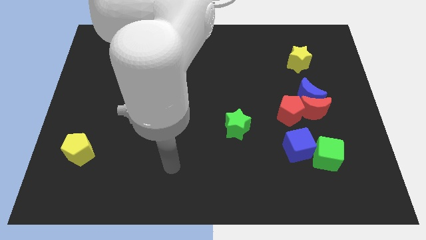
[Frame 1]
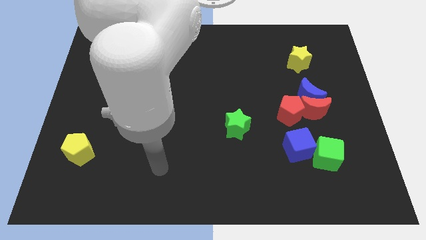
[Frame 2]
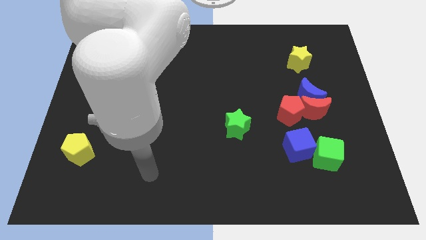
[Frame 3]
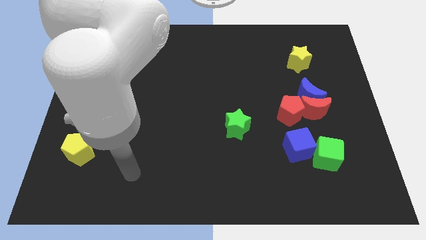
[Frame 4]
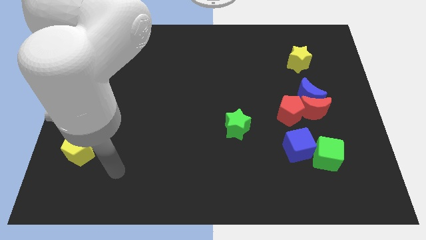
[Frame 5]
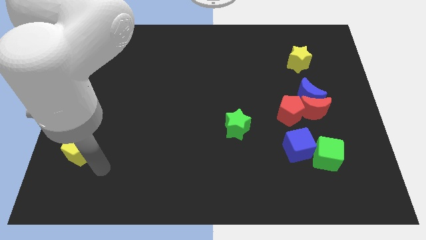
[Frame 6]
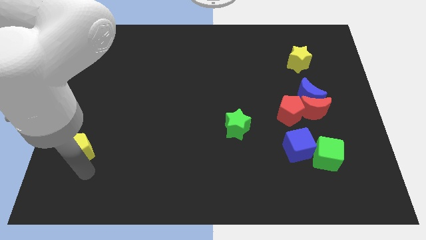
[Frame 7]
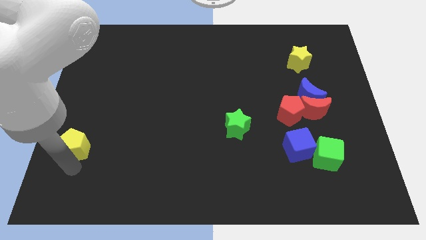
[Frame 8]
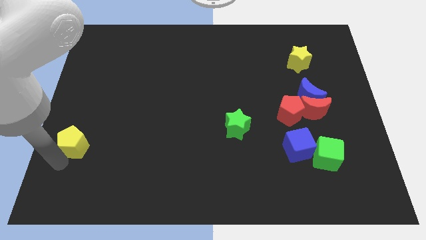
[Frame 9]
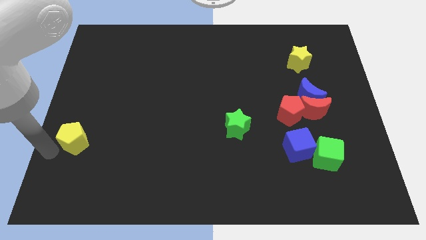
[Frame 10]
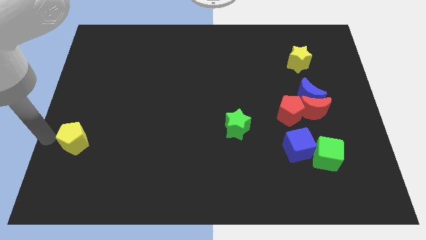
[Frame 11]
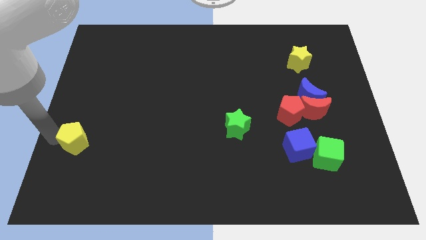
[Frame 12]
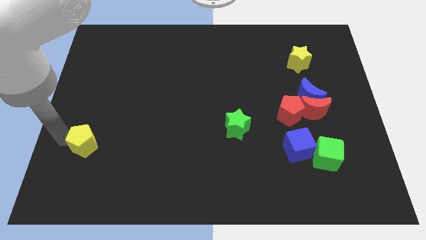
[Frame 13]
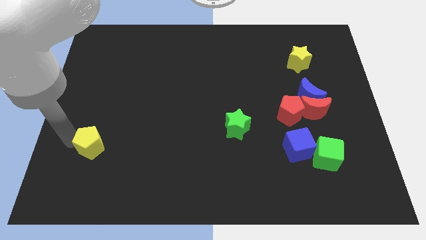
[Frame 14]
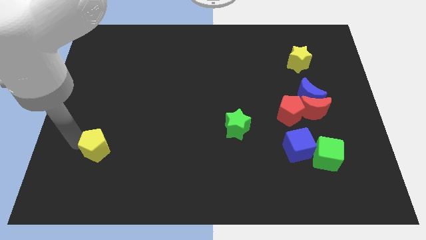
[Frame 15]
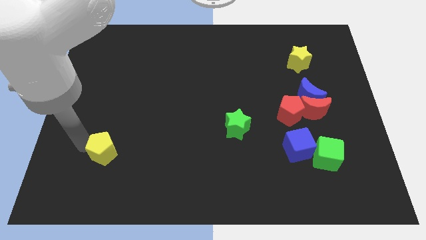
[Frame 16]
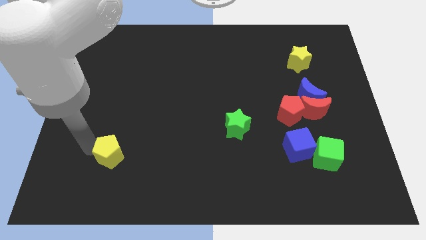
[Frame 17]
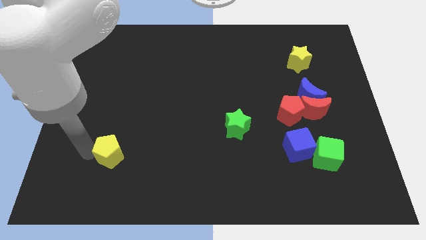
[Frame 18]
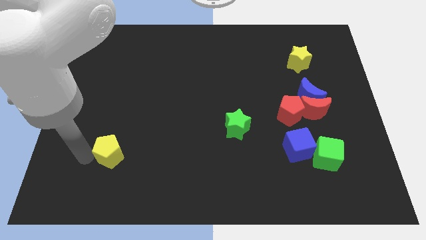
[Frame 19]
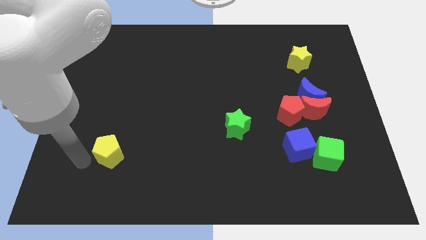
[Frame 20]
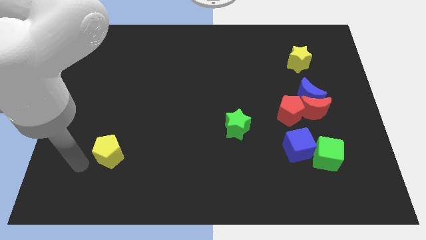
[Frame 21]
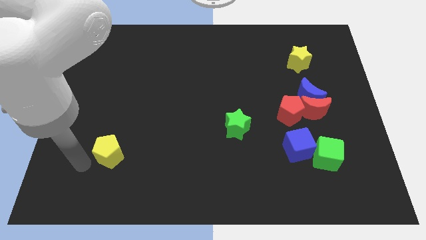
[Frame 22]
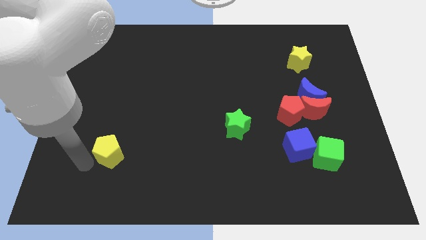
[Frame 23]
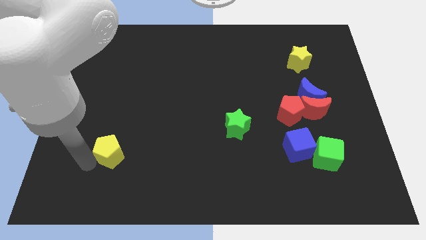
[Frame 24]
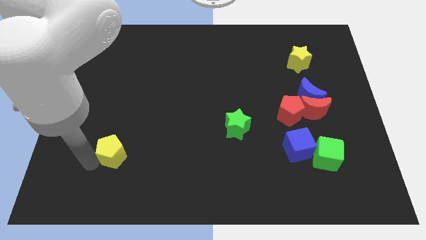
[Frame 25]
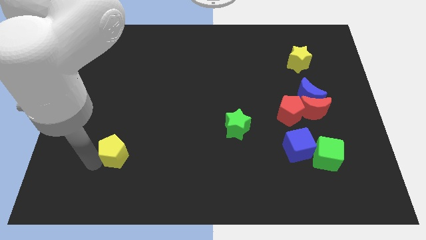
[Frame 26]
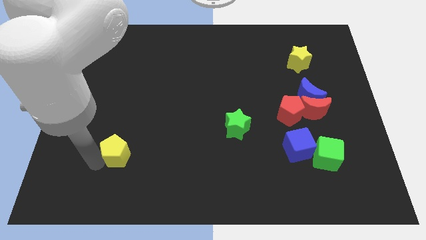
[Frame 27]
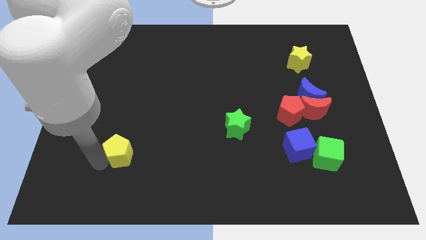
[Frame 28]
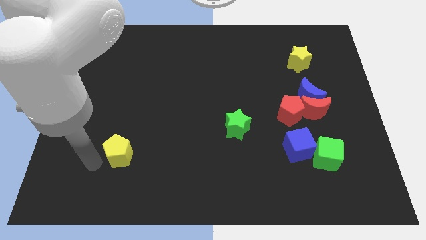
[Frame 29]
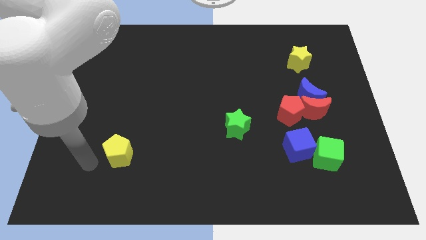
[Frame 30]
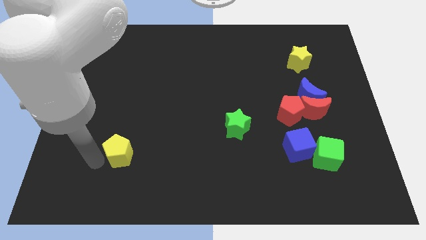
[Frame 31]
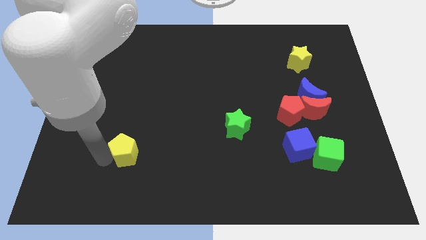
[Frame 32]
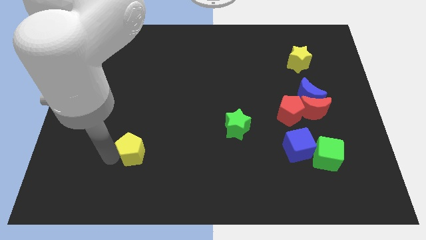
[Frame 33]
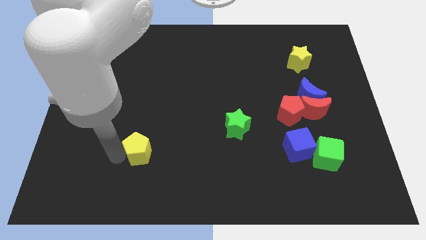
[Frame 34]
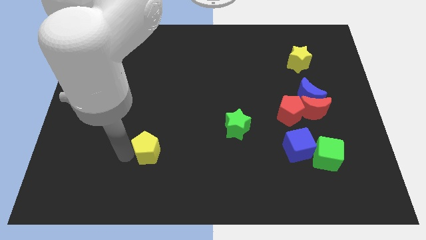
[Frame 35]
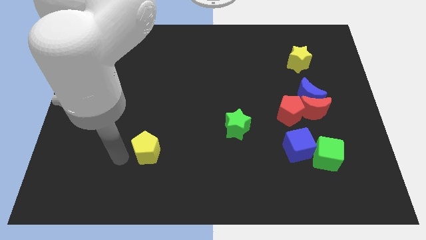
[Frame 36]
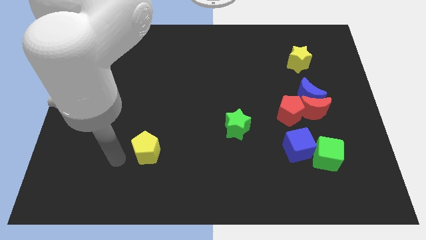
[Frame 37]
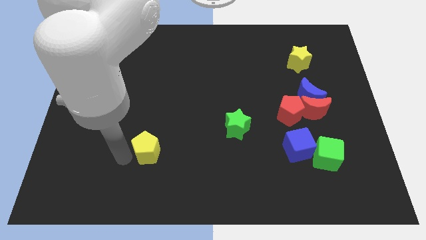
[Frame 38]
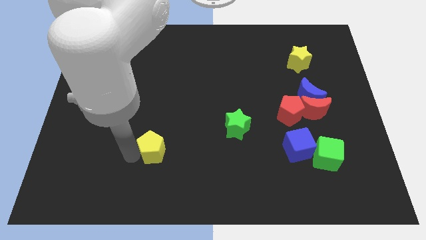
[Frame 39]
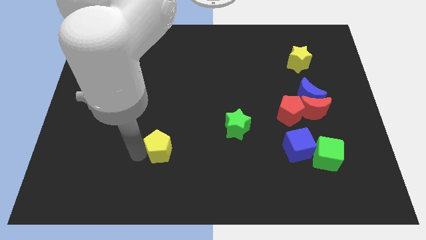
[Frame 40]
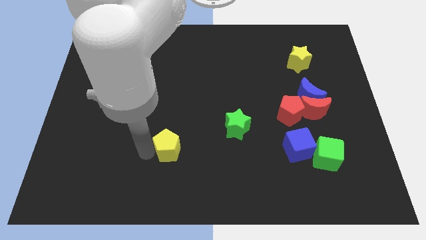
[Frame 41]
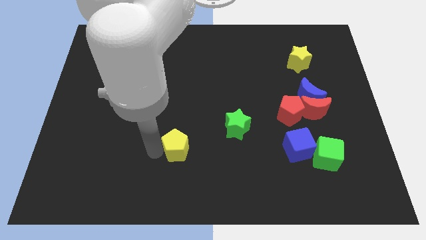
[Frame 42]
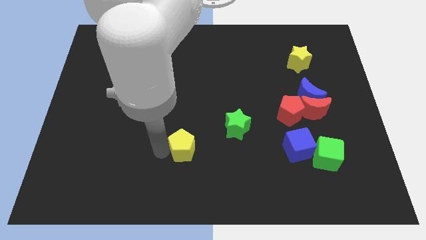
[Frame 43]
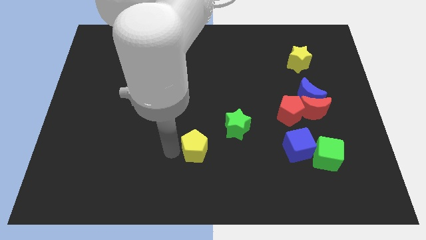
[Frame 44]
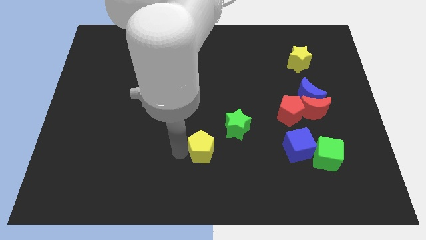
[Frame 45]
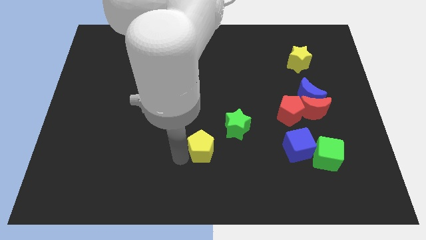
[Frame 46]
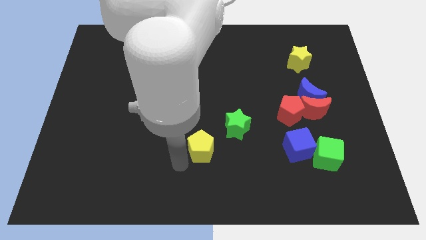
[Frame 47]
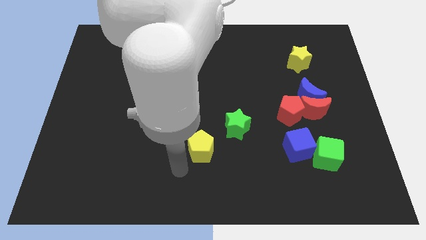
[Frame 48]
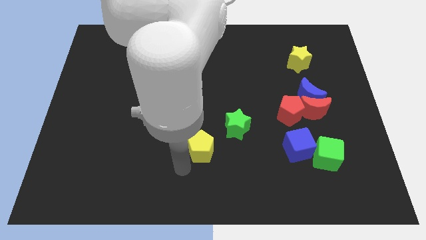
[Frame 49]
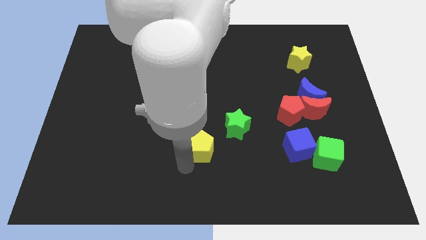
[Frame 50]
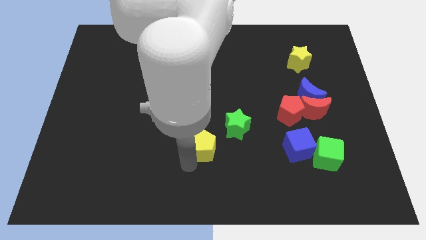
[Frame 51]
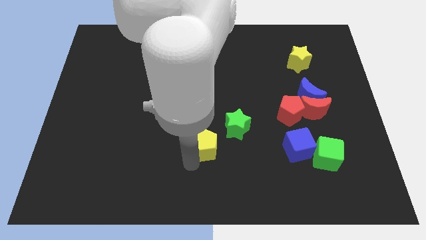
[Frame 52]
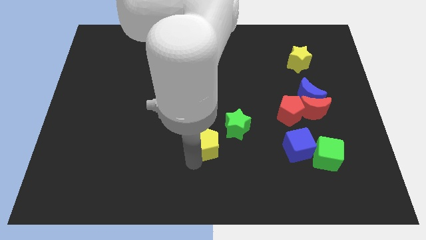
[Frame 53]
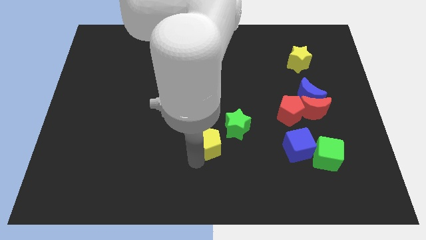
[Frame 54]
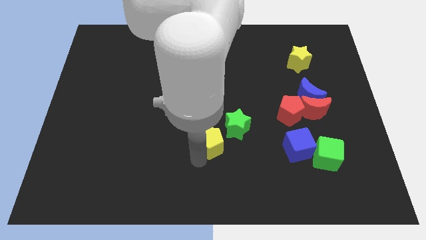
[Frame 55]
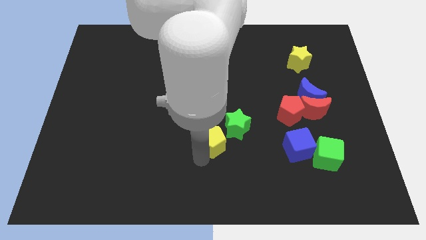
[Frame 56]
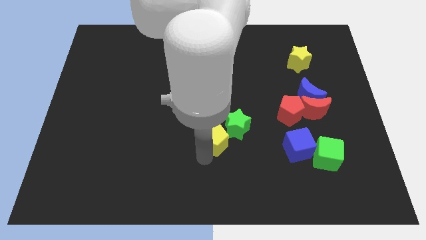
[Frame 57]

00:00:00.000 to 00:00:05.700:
put the yellow pentagon to the green star

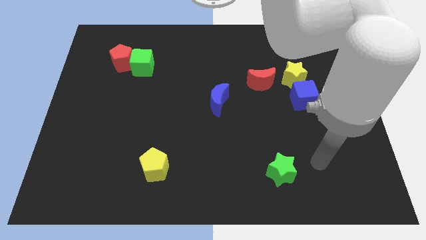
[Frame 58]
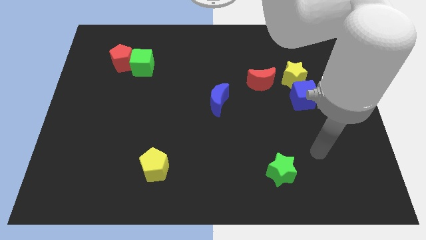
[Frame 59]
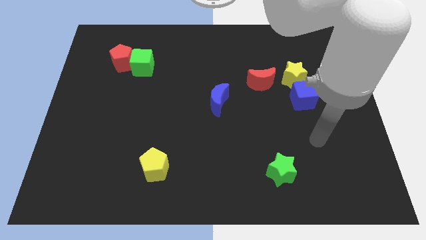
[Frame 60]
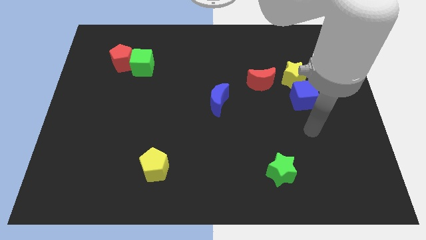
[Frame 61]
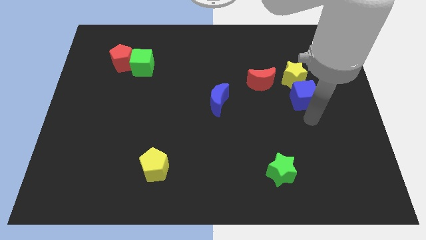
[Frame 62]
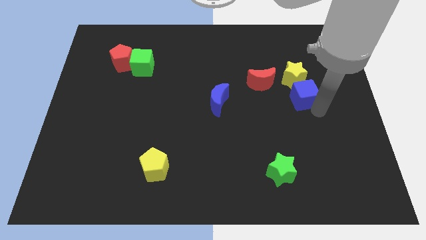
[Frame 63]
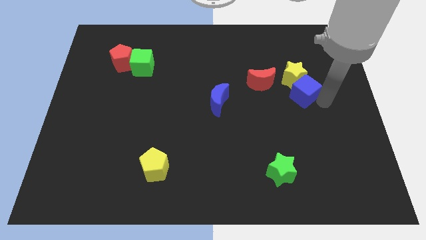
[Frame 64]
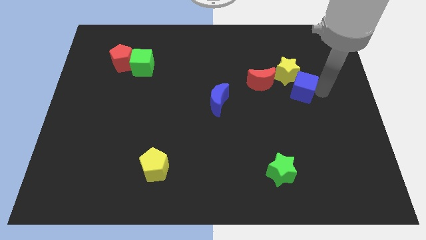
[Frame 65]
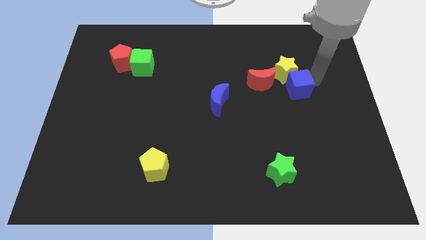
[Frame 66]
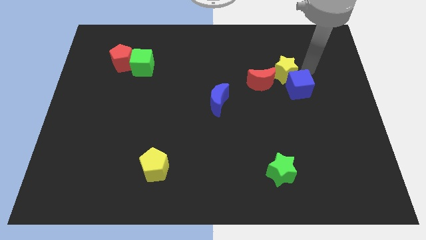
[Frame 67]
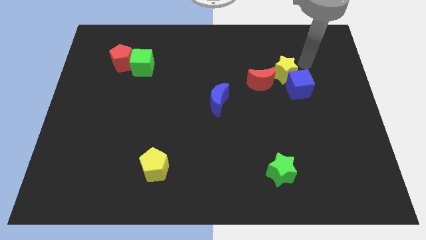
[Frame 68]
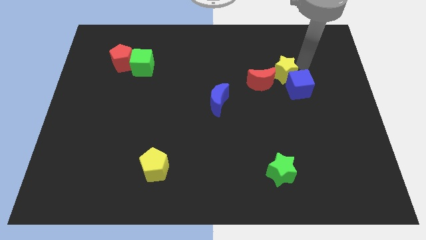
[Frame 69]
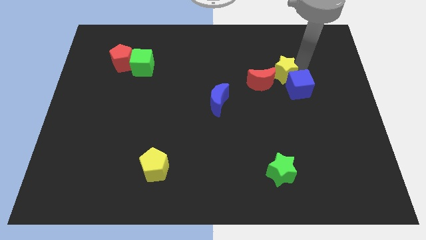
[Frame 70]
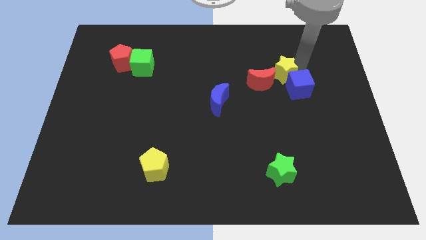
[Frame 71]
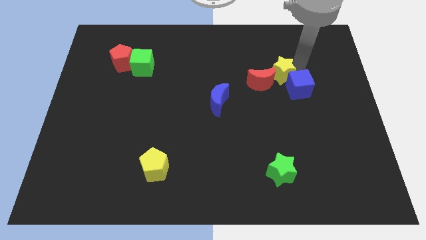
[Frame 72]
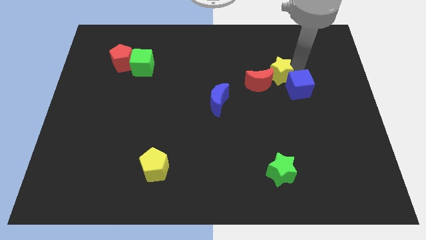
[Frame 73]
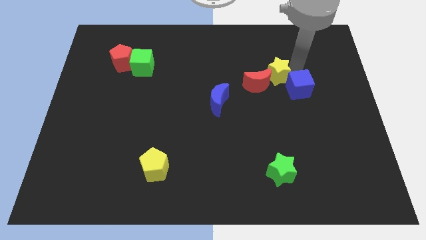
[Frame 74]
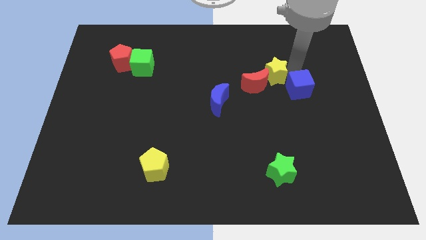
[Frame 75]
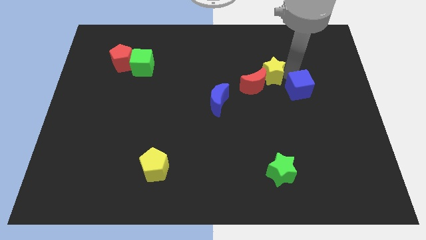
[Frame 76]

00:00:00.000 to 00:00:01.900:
move the yellow star next to the red moon
